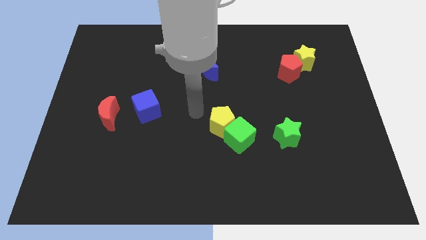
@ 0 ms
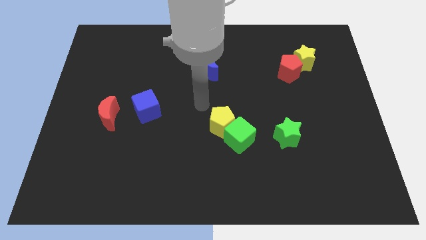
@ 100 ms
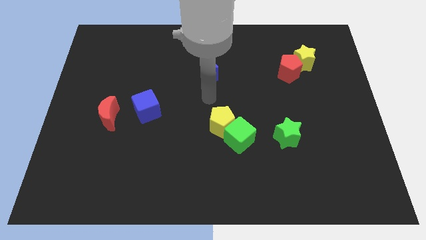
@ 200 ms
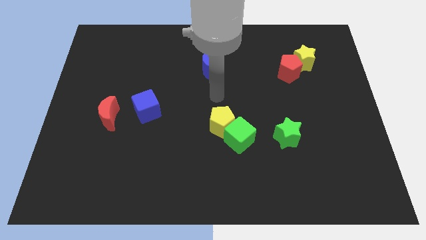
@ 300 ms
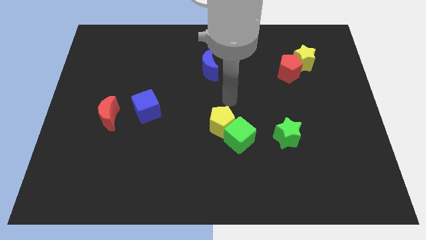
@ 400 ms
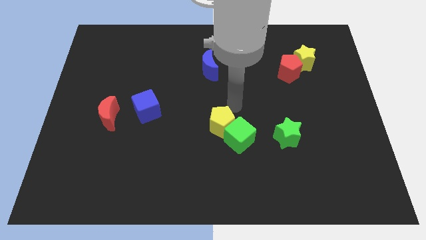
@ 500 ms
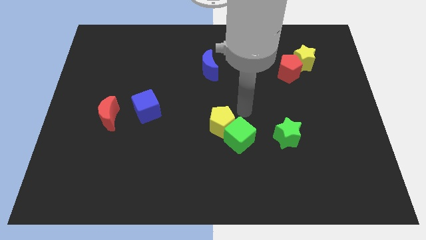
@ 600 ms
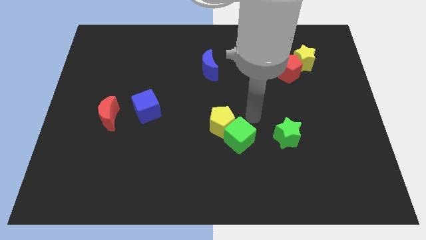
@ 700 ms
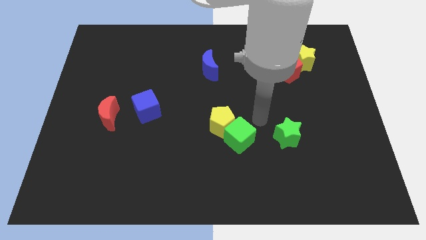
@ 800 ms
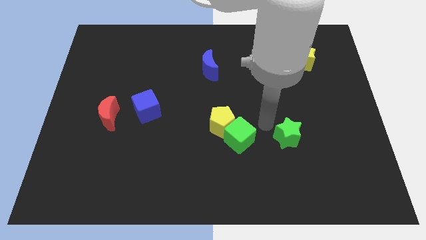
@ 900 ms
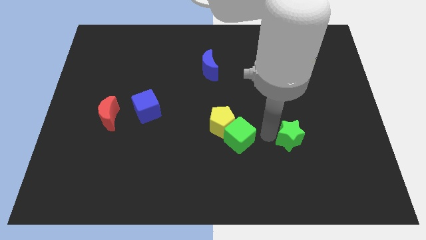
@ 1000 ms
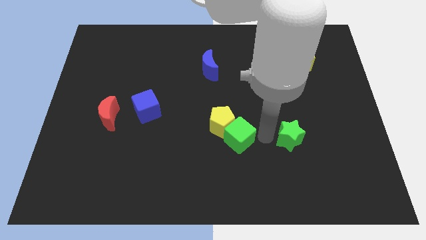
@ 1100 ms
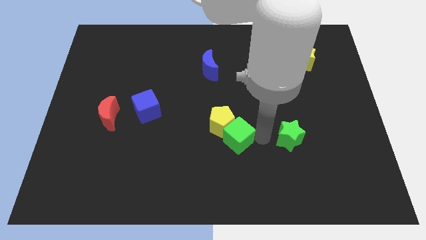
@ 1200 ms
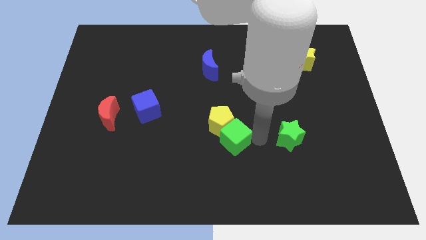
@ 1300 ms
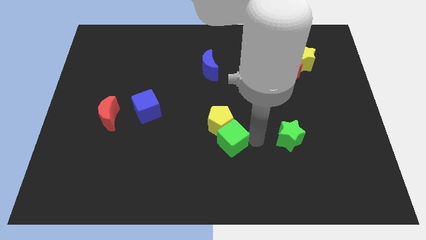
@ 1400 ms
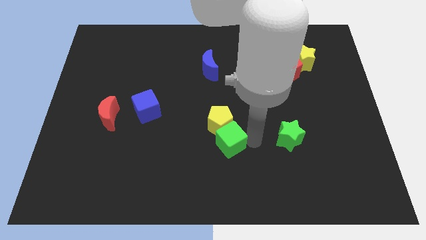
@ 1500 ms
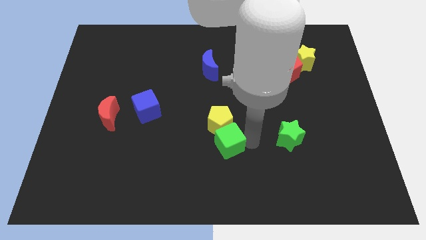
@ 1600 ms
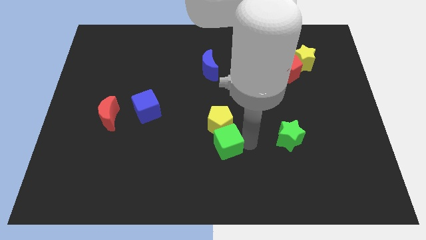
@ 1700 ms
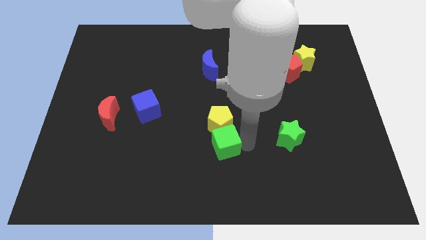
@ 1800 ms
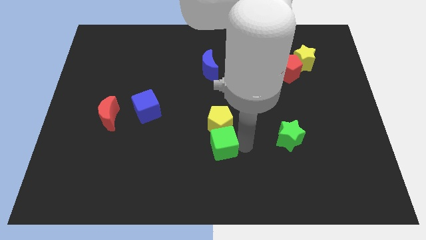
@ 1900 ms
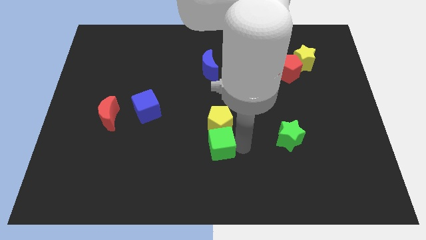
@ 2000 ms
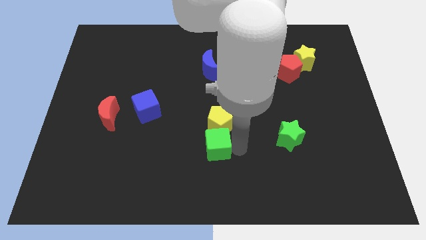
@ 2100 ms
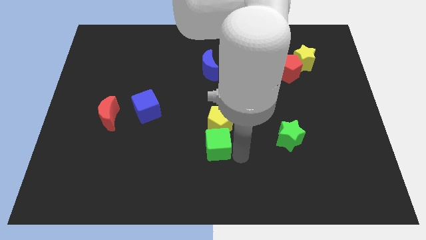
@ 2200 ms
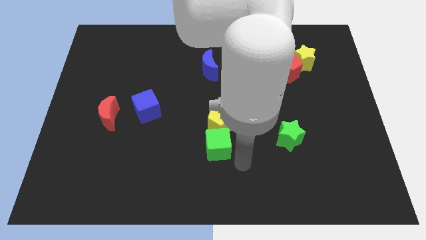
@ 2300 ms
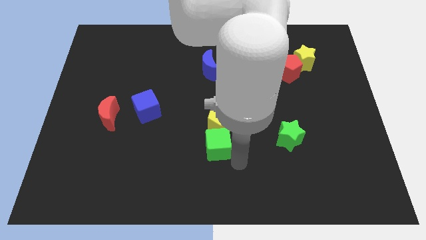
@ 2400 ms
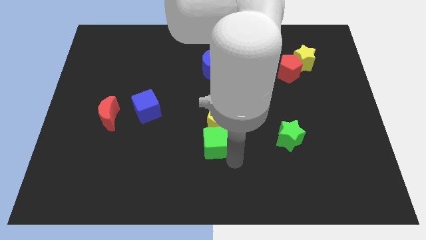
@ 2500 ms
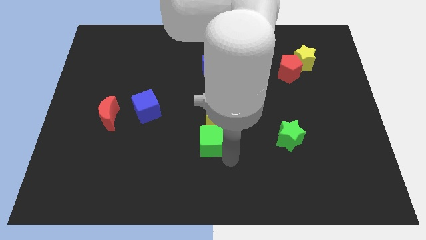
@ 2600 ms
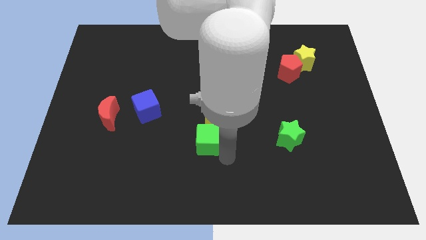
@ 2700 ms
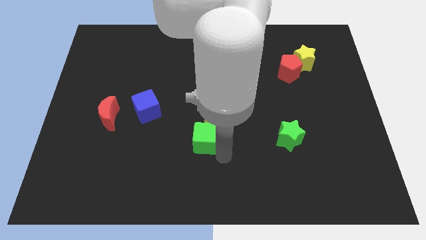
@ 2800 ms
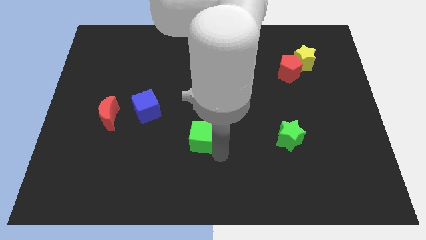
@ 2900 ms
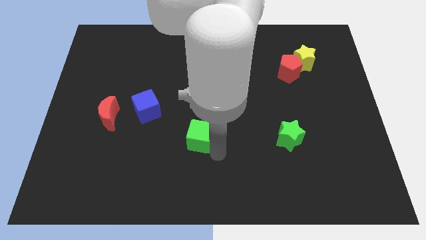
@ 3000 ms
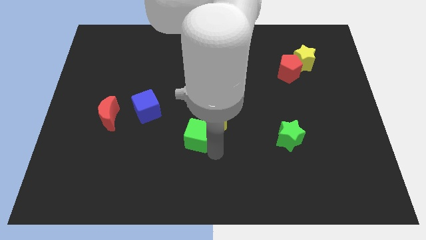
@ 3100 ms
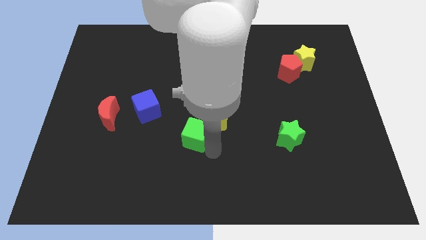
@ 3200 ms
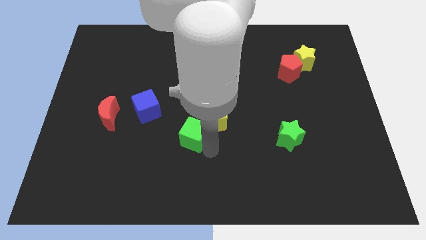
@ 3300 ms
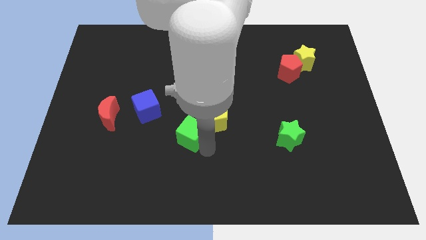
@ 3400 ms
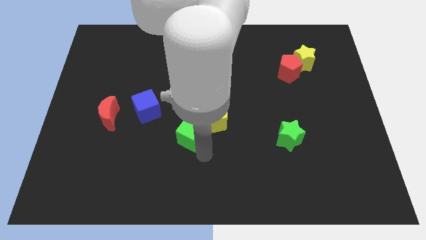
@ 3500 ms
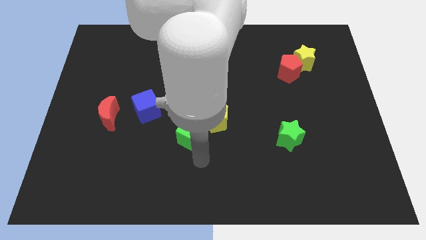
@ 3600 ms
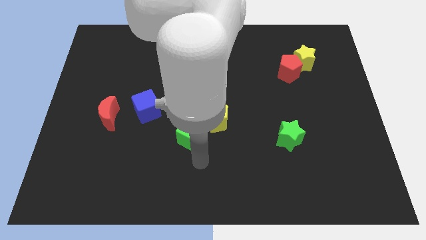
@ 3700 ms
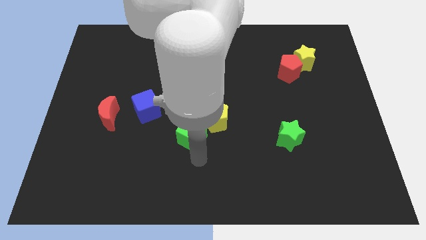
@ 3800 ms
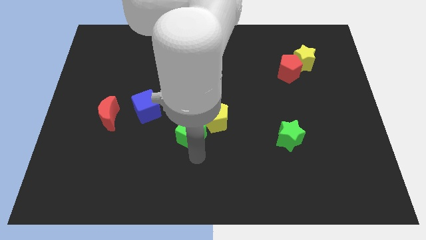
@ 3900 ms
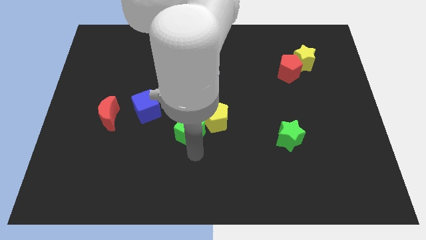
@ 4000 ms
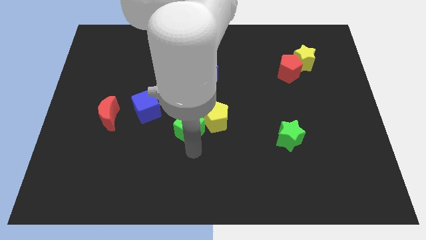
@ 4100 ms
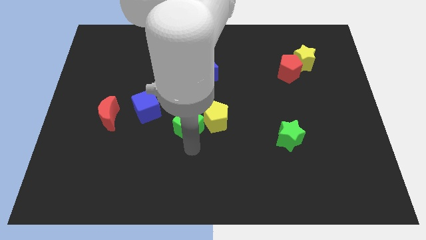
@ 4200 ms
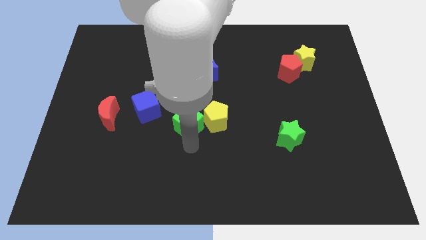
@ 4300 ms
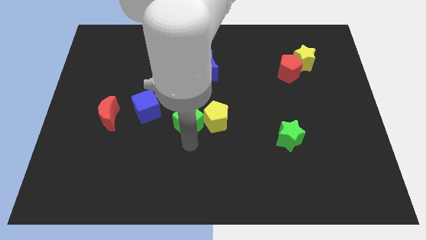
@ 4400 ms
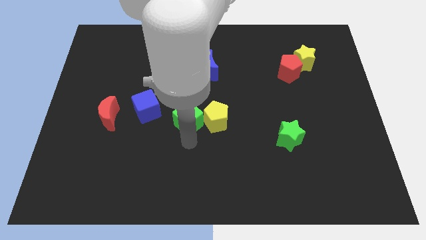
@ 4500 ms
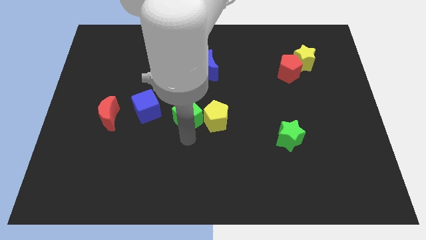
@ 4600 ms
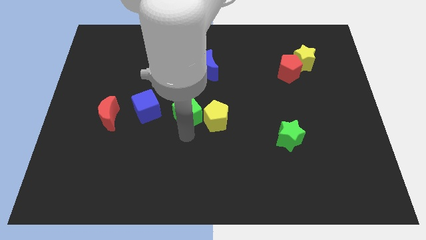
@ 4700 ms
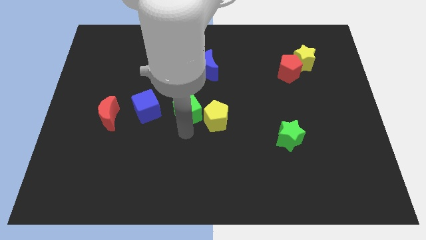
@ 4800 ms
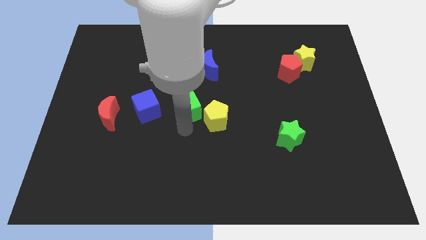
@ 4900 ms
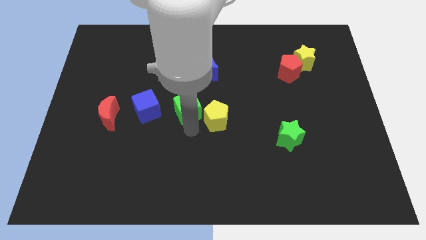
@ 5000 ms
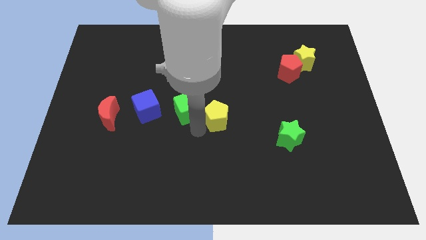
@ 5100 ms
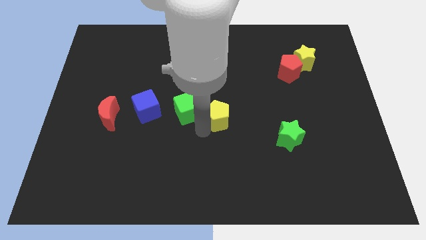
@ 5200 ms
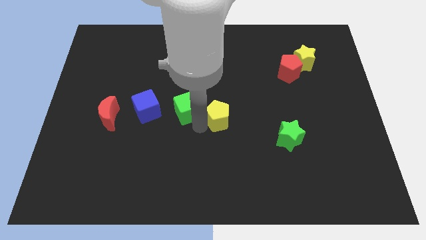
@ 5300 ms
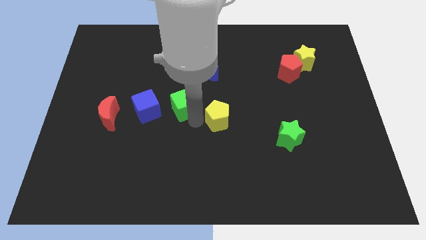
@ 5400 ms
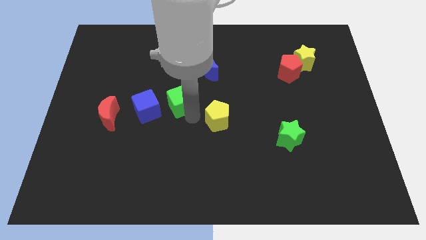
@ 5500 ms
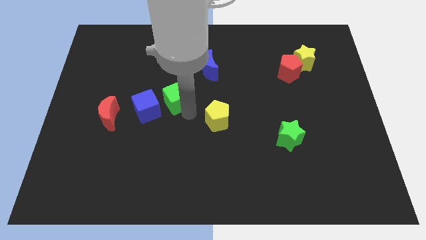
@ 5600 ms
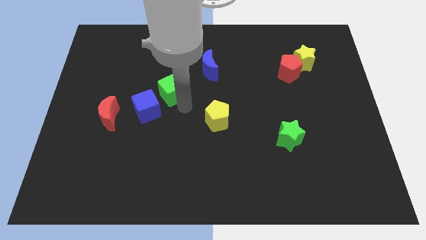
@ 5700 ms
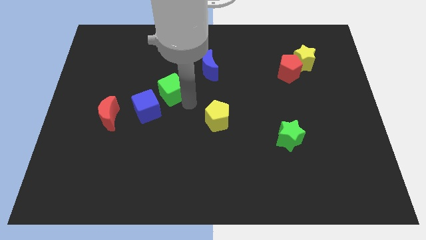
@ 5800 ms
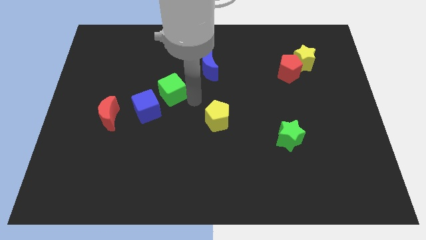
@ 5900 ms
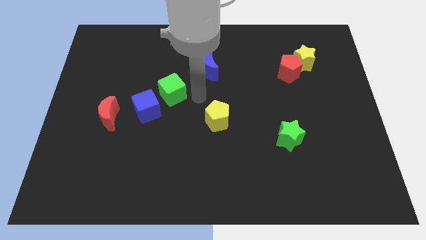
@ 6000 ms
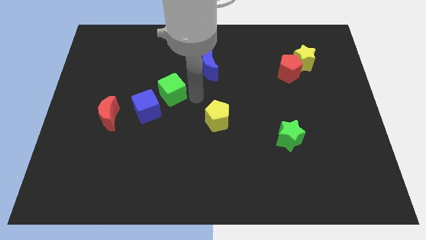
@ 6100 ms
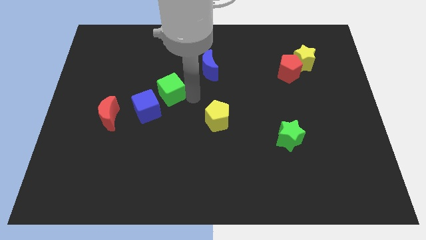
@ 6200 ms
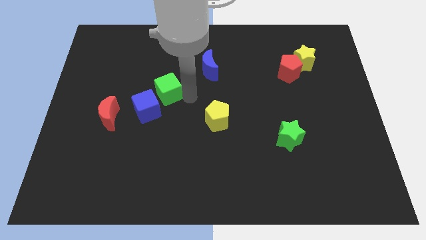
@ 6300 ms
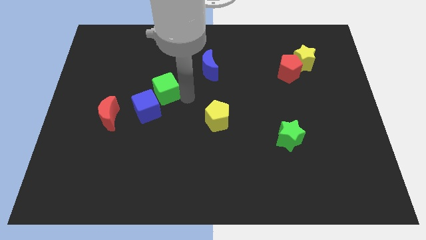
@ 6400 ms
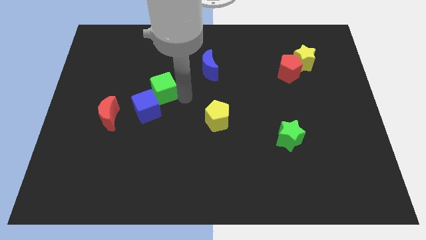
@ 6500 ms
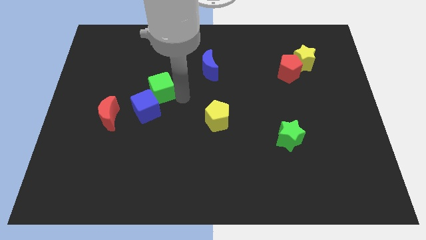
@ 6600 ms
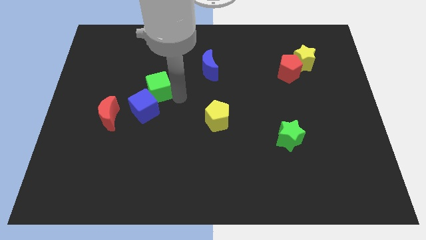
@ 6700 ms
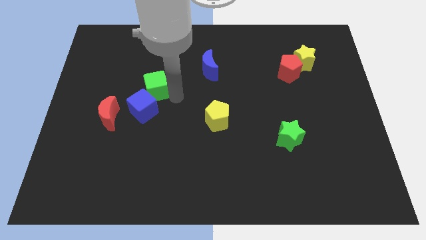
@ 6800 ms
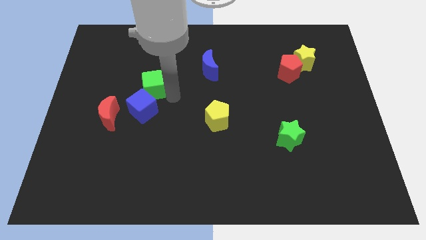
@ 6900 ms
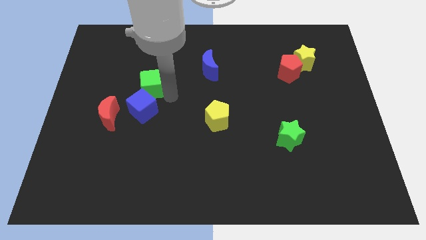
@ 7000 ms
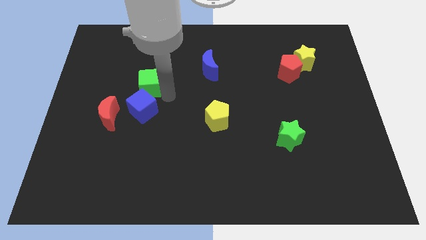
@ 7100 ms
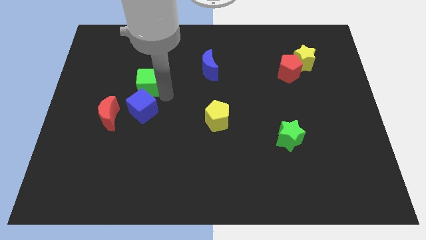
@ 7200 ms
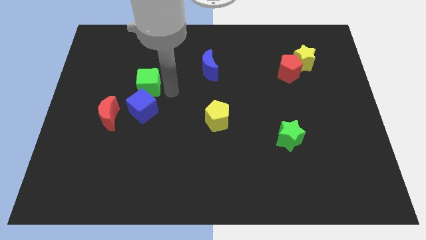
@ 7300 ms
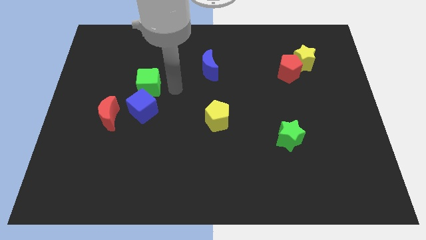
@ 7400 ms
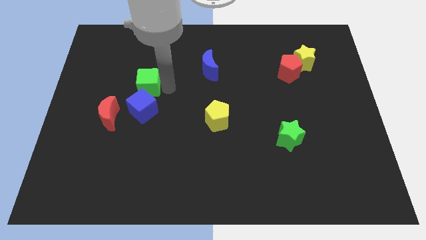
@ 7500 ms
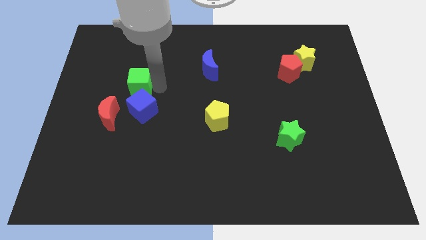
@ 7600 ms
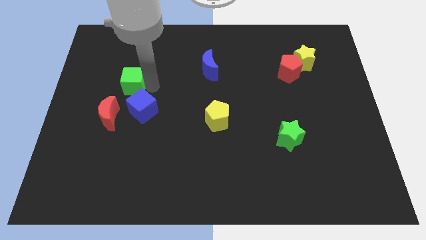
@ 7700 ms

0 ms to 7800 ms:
put the green cube above the red moon

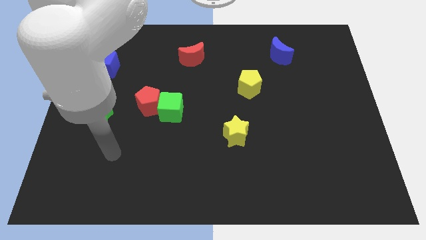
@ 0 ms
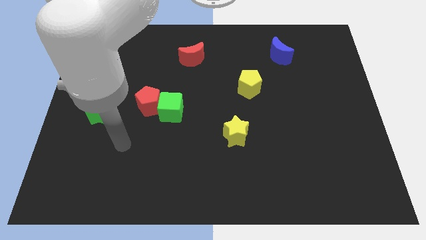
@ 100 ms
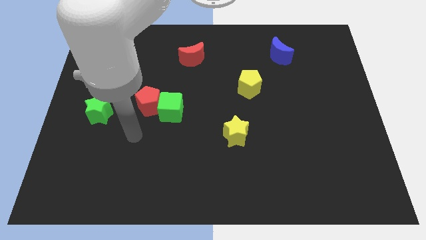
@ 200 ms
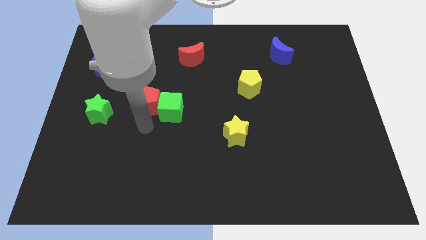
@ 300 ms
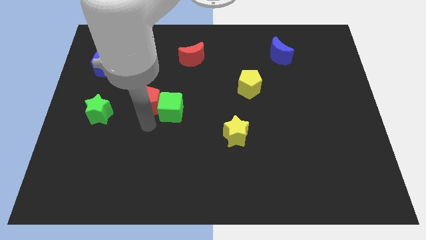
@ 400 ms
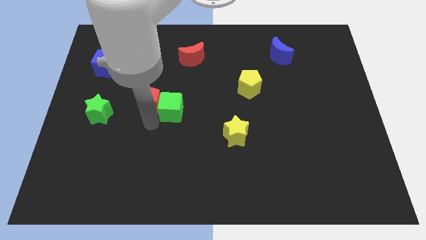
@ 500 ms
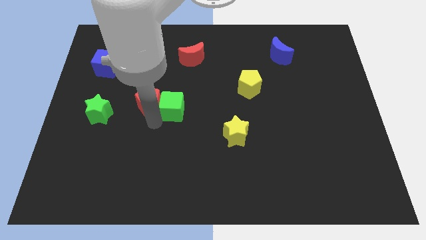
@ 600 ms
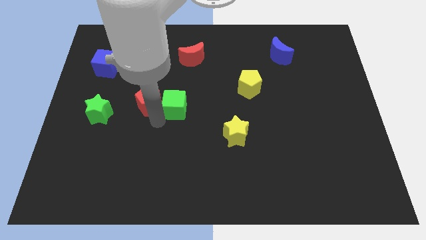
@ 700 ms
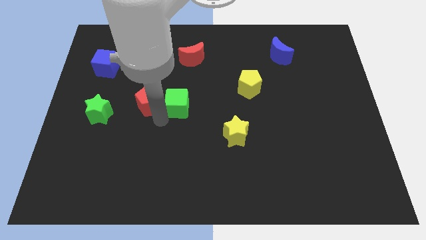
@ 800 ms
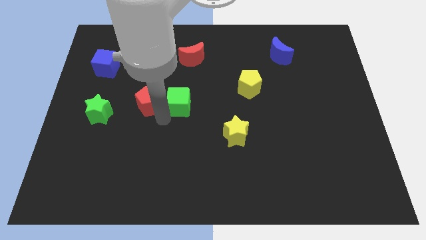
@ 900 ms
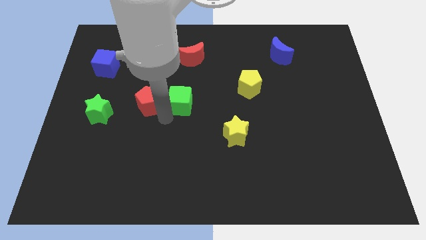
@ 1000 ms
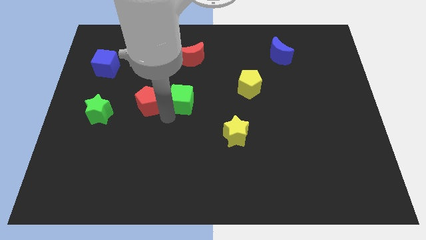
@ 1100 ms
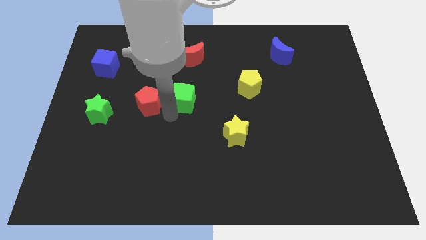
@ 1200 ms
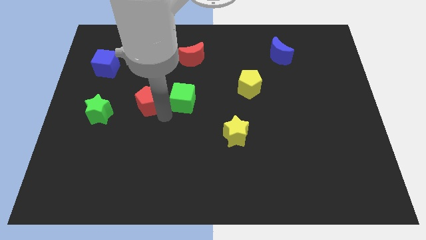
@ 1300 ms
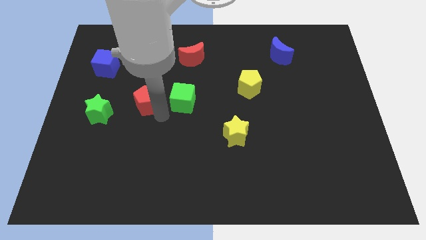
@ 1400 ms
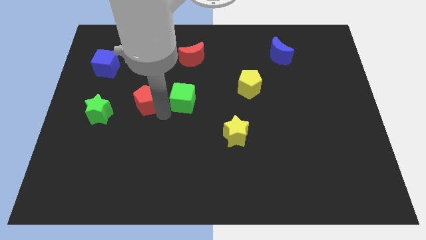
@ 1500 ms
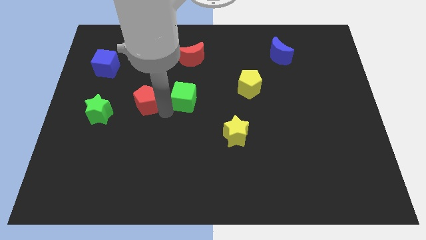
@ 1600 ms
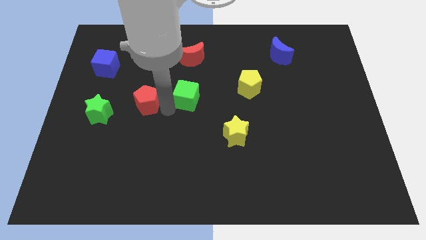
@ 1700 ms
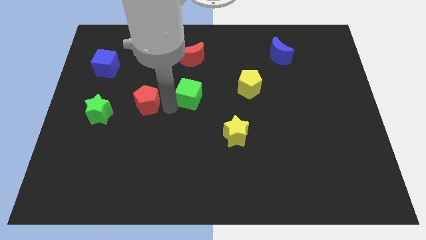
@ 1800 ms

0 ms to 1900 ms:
push the green cube to the left of the yellow pentagon
